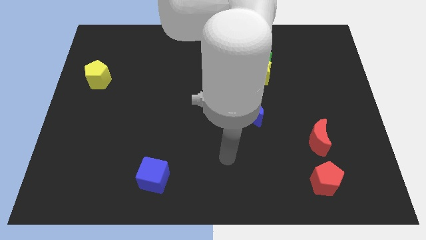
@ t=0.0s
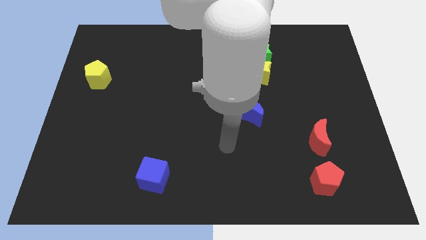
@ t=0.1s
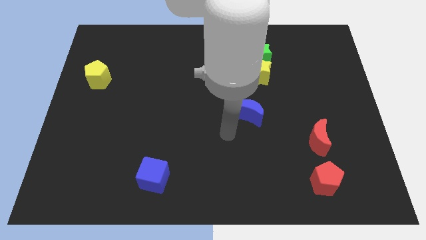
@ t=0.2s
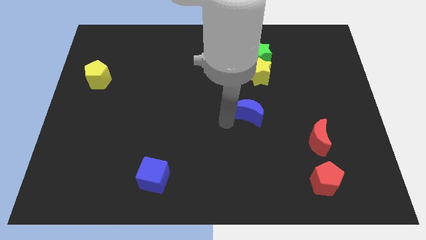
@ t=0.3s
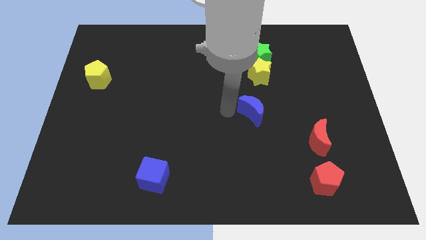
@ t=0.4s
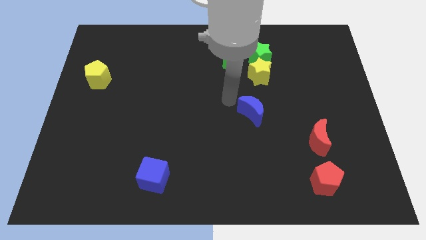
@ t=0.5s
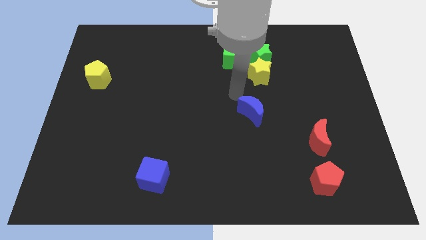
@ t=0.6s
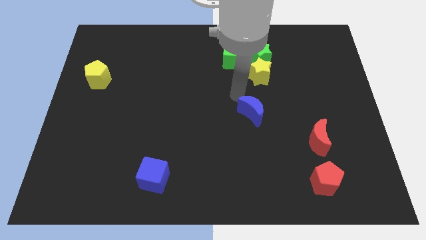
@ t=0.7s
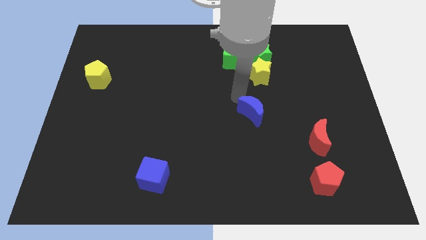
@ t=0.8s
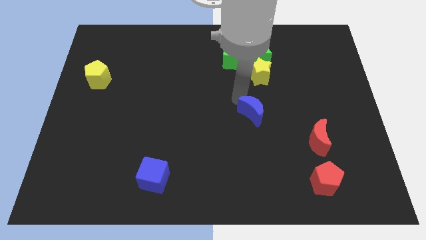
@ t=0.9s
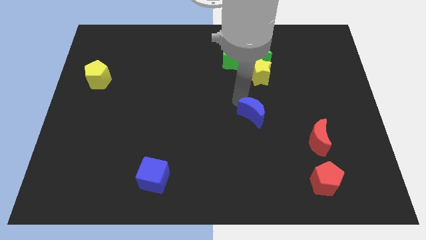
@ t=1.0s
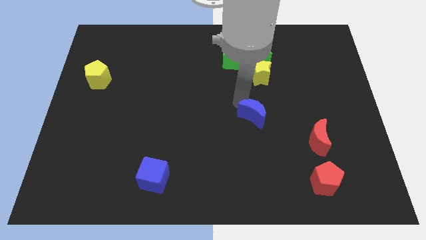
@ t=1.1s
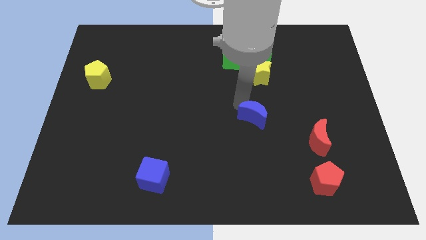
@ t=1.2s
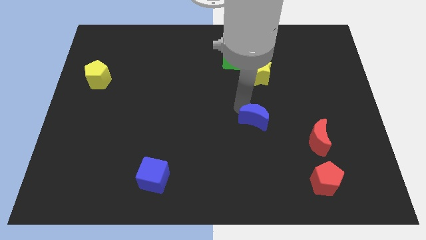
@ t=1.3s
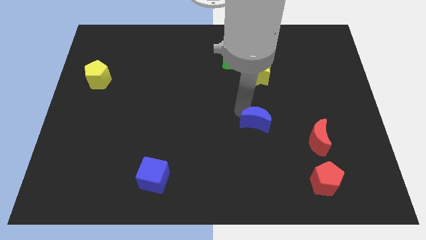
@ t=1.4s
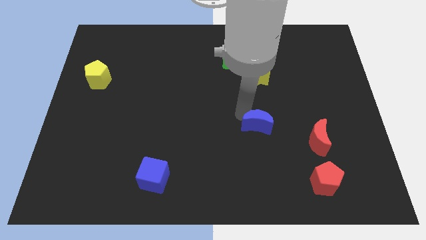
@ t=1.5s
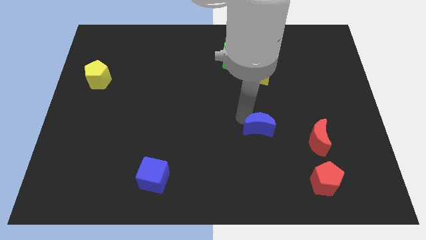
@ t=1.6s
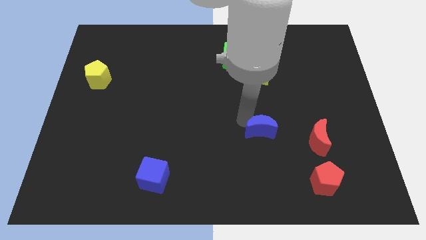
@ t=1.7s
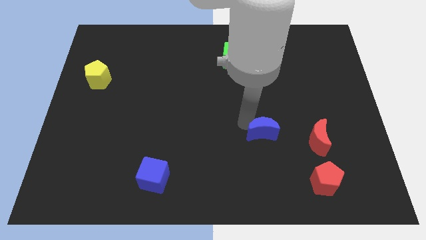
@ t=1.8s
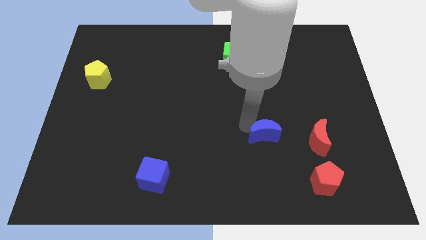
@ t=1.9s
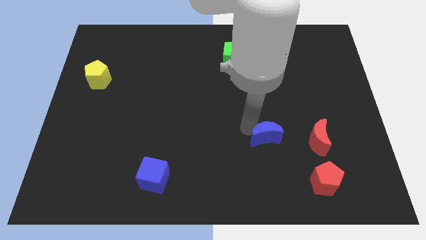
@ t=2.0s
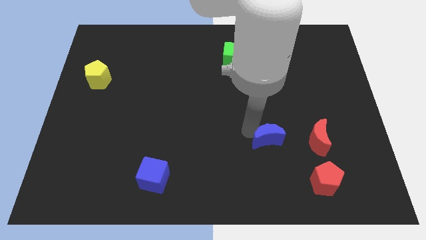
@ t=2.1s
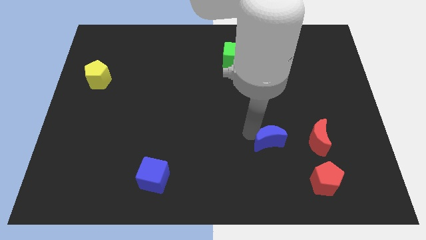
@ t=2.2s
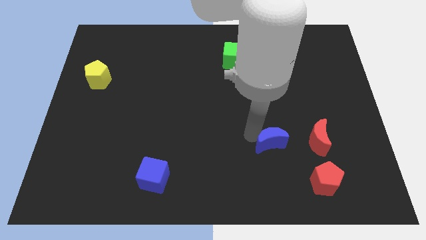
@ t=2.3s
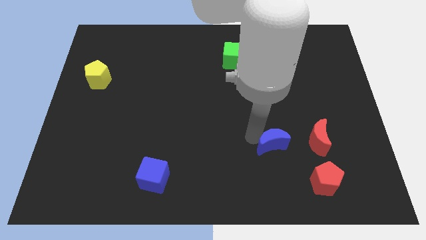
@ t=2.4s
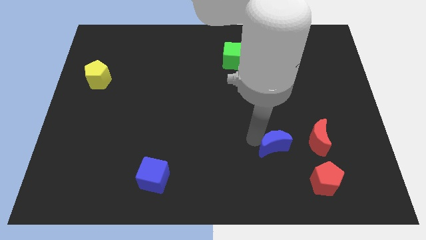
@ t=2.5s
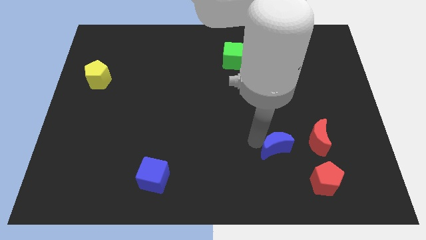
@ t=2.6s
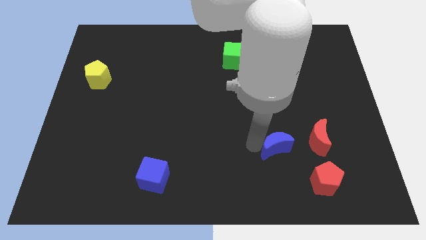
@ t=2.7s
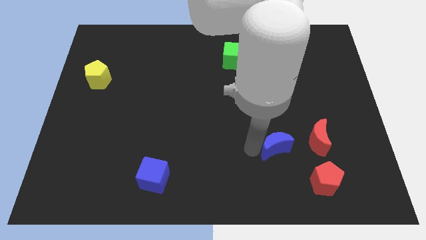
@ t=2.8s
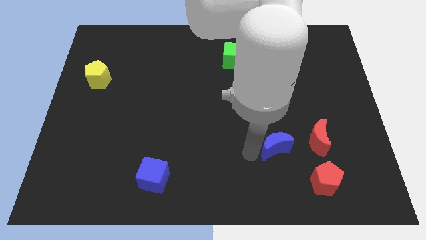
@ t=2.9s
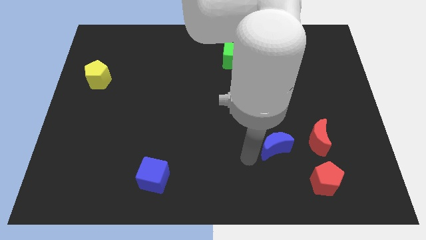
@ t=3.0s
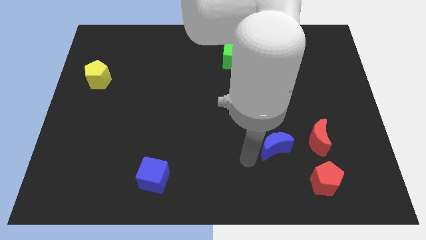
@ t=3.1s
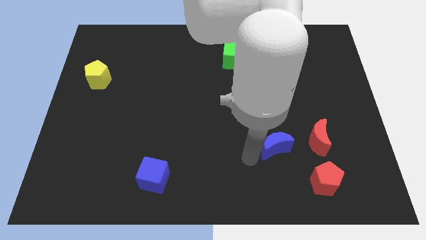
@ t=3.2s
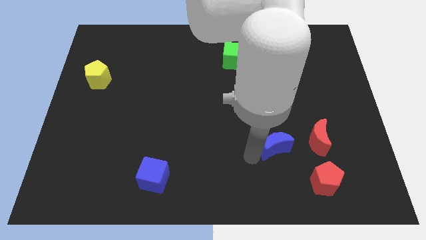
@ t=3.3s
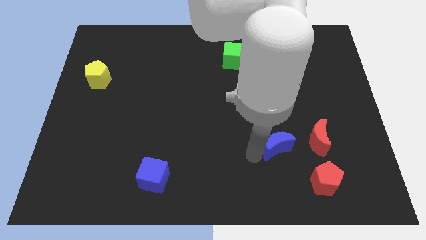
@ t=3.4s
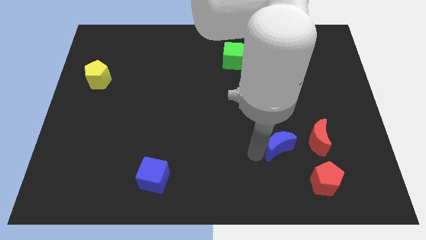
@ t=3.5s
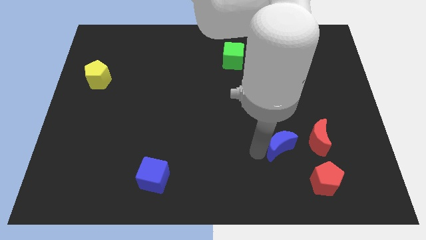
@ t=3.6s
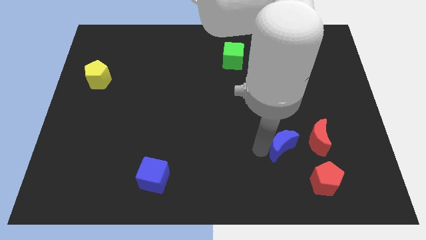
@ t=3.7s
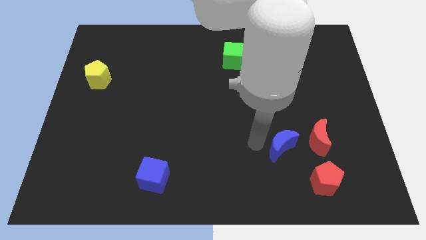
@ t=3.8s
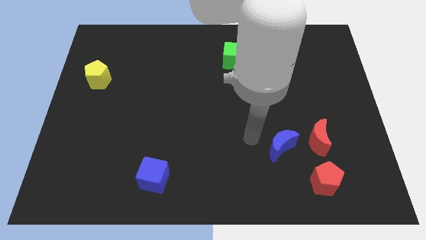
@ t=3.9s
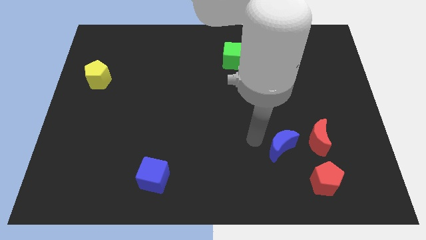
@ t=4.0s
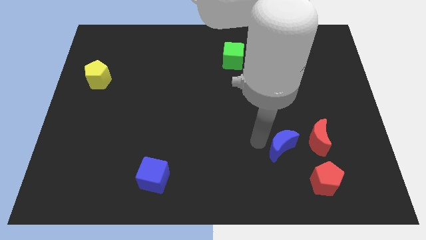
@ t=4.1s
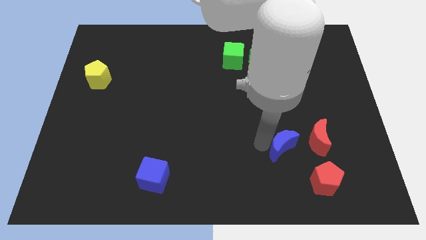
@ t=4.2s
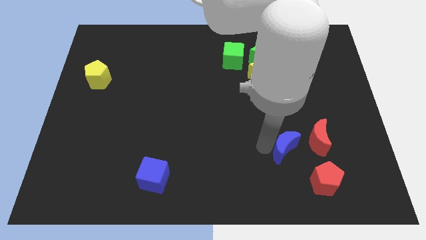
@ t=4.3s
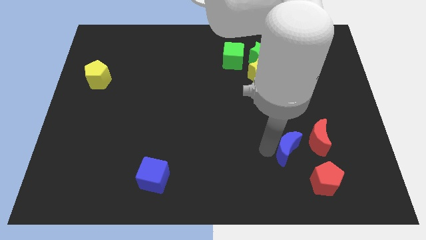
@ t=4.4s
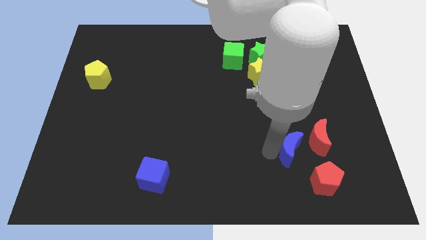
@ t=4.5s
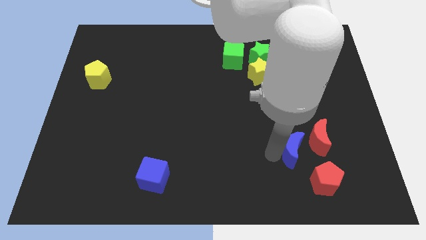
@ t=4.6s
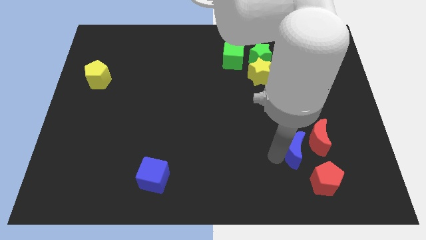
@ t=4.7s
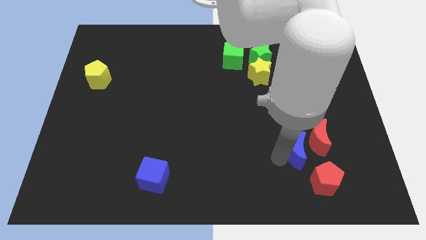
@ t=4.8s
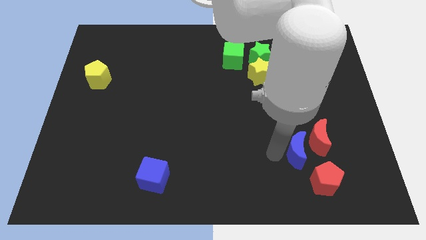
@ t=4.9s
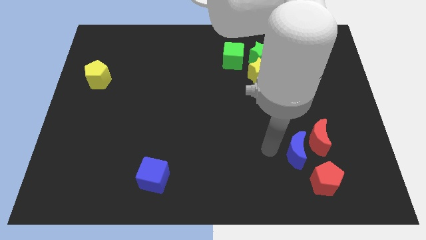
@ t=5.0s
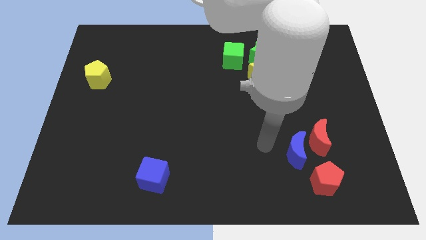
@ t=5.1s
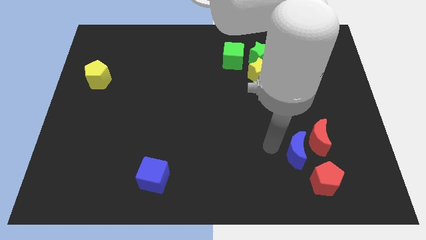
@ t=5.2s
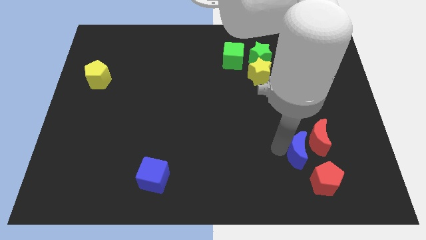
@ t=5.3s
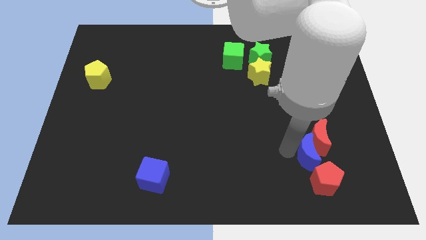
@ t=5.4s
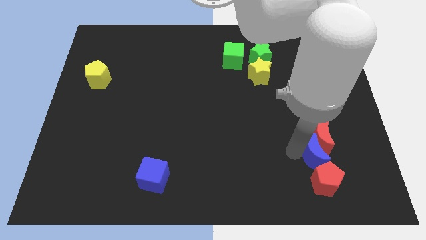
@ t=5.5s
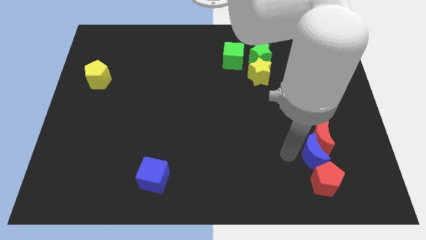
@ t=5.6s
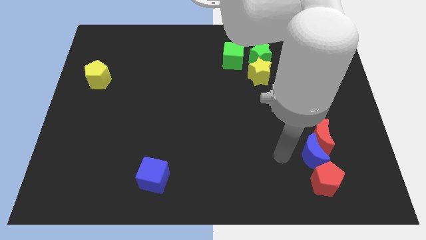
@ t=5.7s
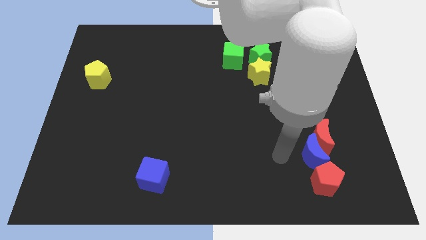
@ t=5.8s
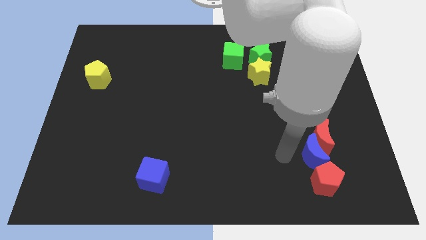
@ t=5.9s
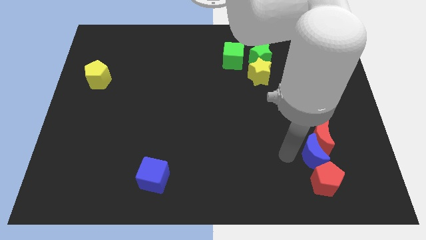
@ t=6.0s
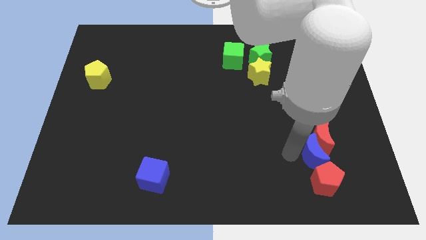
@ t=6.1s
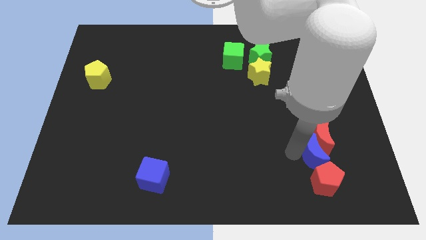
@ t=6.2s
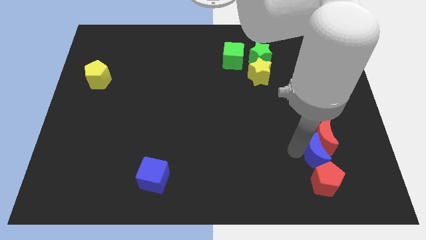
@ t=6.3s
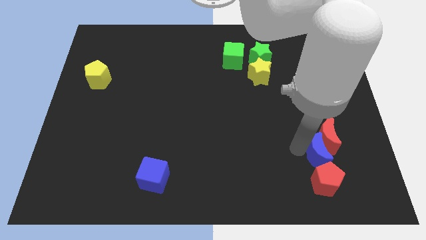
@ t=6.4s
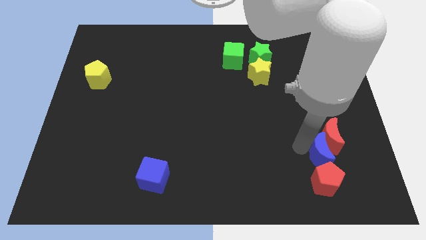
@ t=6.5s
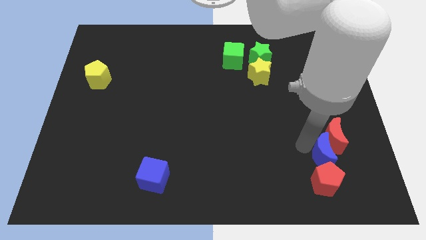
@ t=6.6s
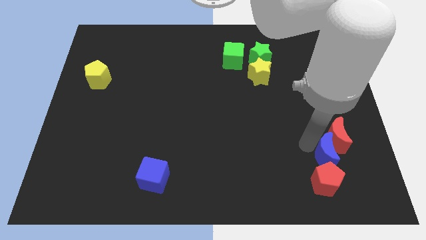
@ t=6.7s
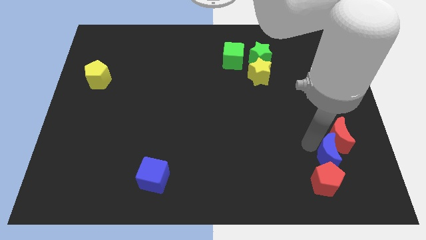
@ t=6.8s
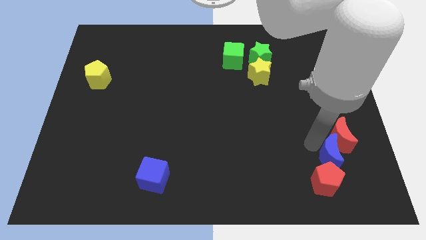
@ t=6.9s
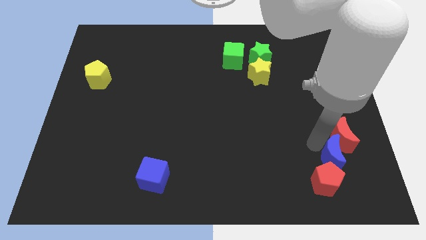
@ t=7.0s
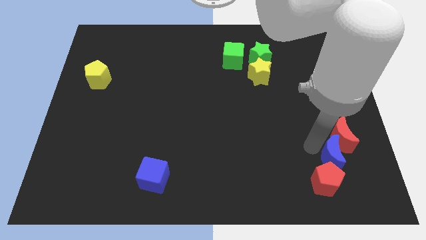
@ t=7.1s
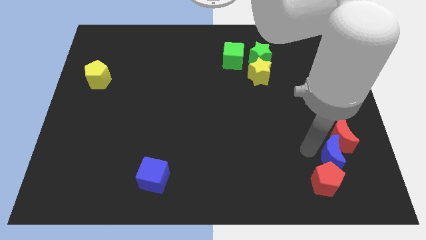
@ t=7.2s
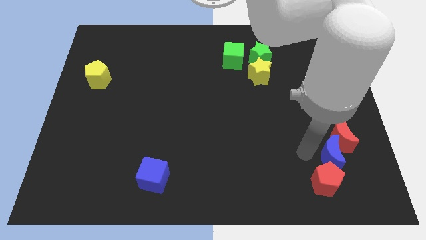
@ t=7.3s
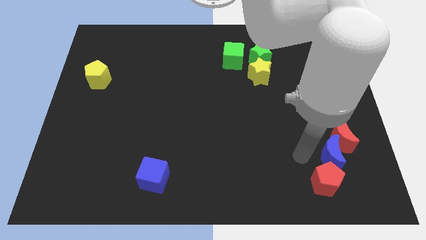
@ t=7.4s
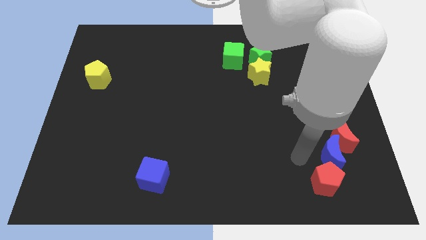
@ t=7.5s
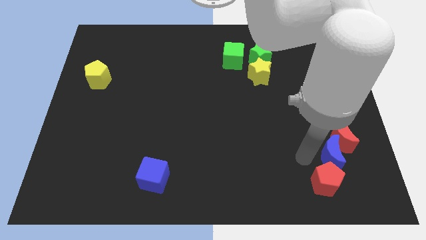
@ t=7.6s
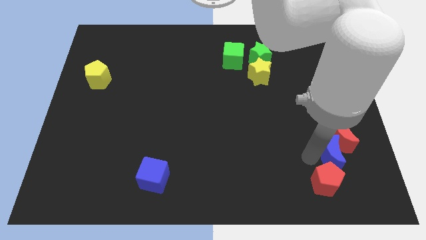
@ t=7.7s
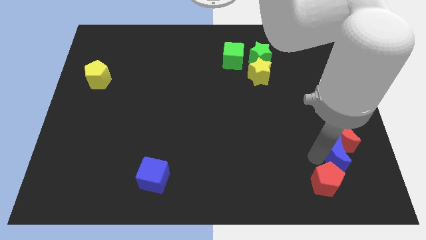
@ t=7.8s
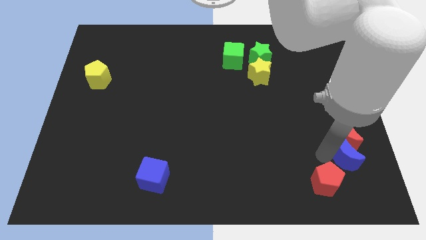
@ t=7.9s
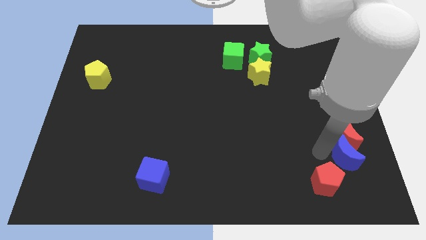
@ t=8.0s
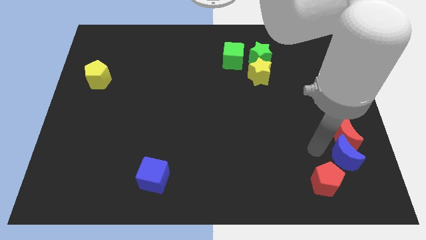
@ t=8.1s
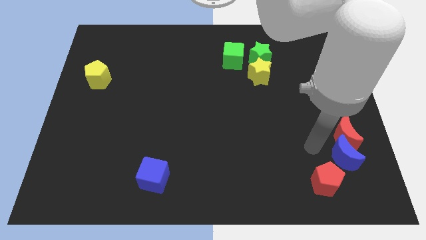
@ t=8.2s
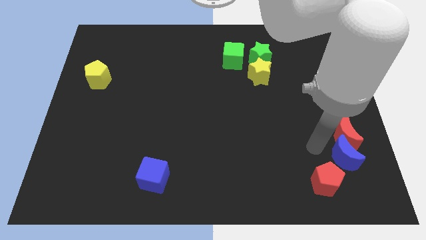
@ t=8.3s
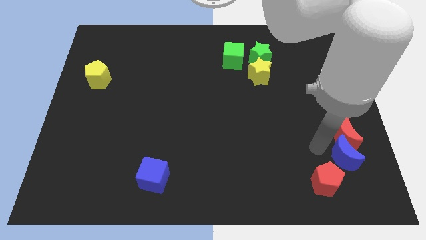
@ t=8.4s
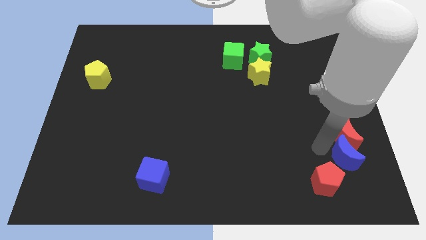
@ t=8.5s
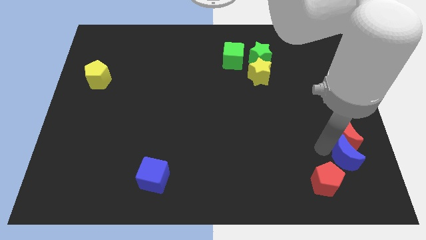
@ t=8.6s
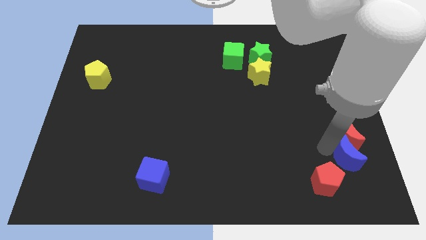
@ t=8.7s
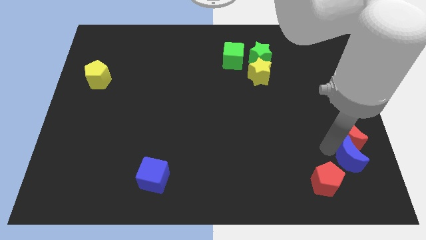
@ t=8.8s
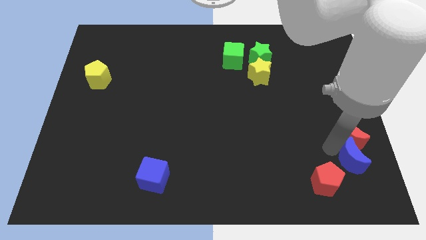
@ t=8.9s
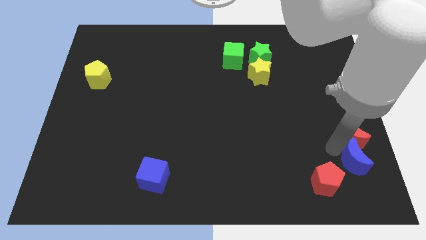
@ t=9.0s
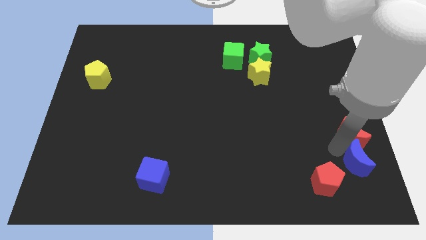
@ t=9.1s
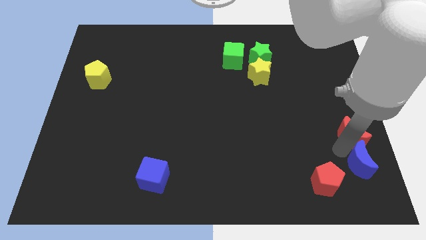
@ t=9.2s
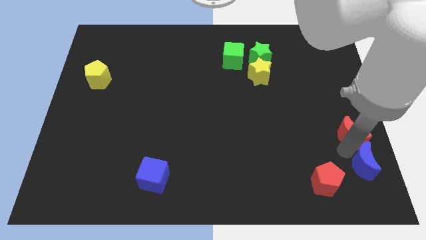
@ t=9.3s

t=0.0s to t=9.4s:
slide the blue moon to the lower right corner
